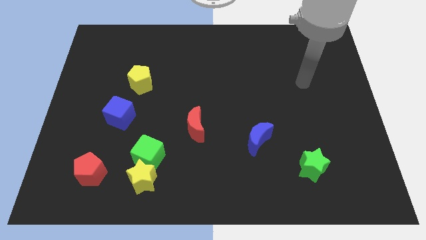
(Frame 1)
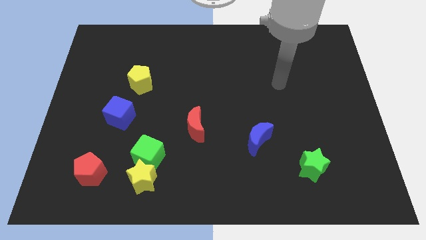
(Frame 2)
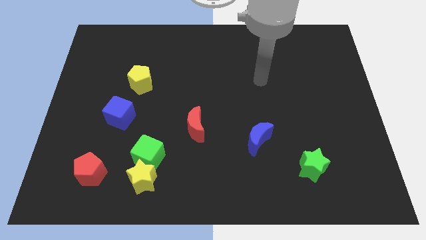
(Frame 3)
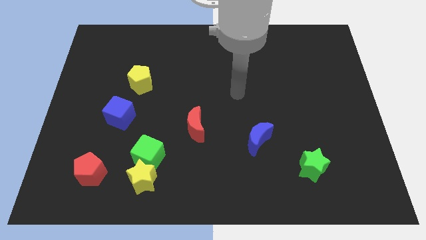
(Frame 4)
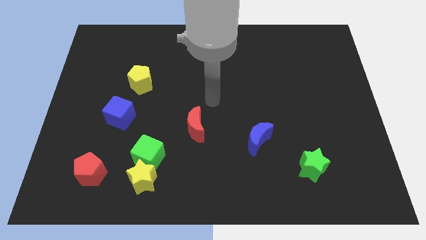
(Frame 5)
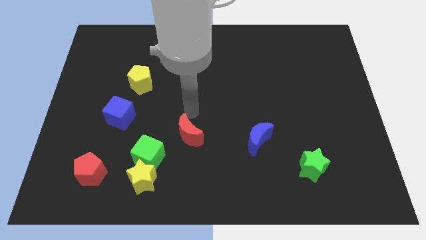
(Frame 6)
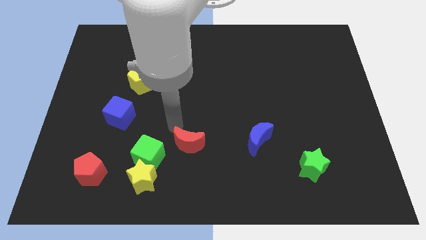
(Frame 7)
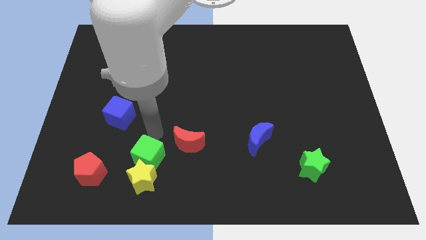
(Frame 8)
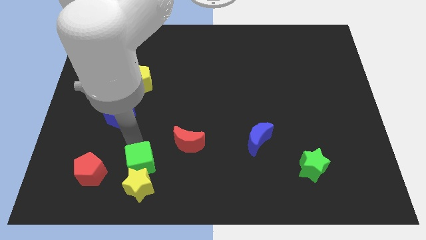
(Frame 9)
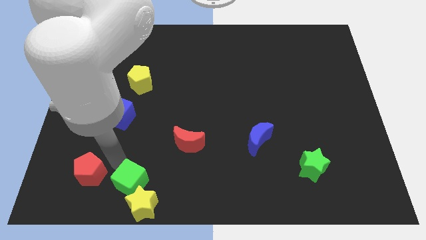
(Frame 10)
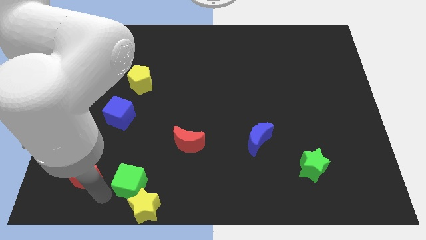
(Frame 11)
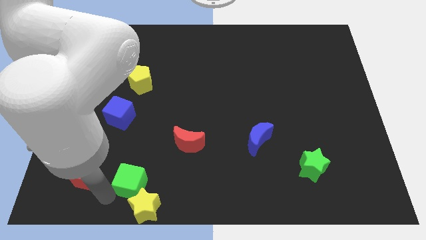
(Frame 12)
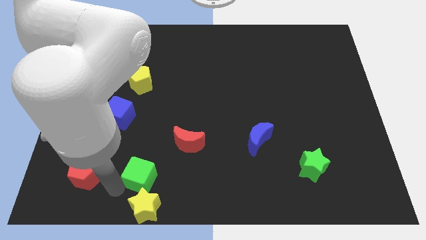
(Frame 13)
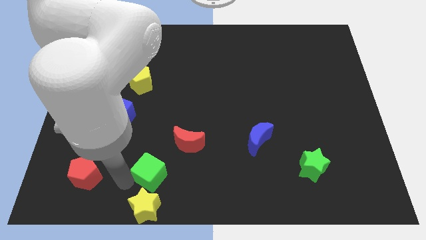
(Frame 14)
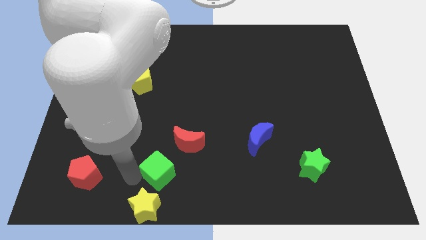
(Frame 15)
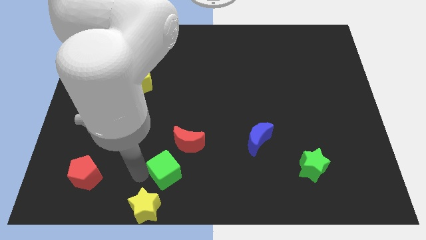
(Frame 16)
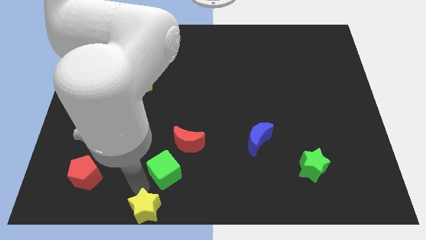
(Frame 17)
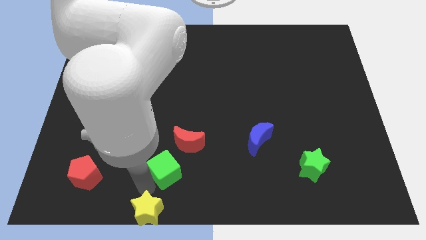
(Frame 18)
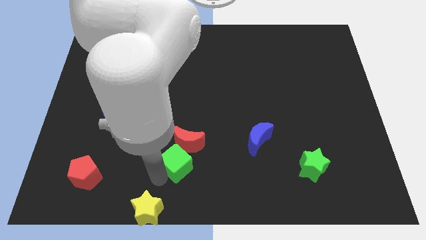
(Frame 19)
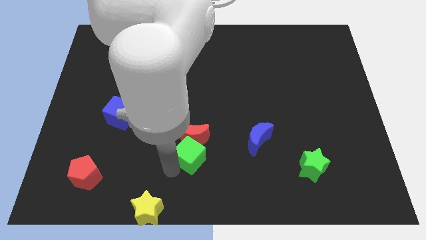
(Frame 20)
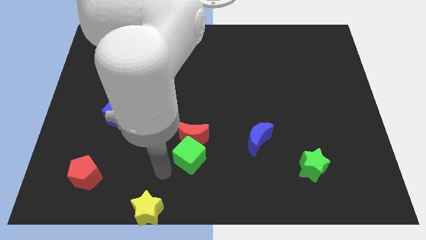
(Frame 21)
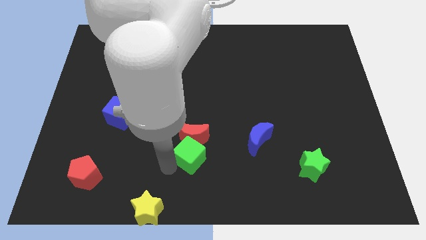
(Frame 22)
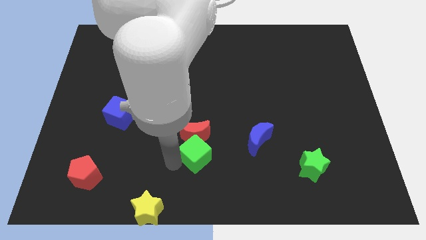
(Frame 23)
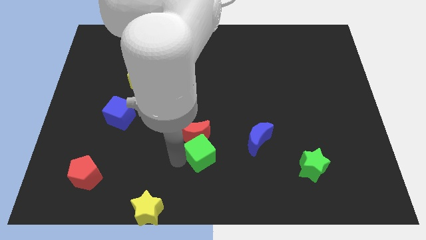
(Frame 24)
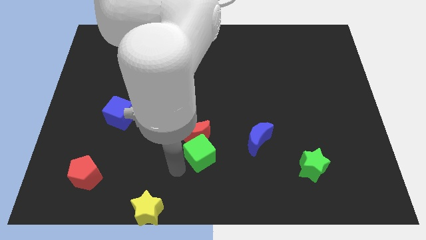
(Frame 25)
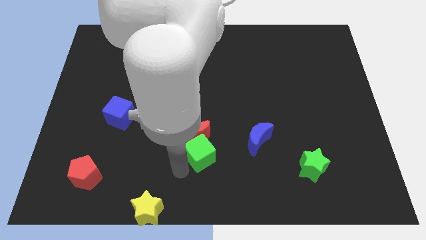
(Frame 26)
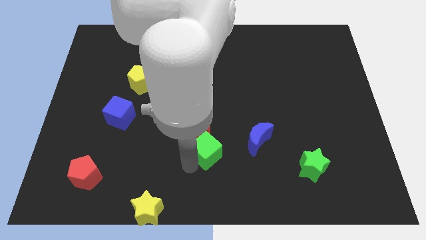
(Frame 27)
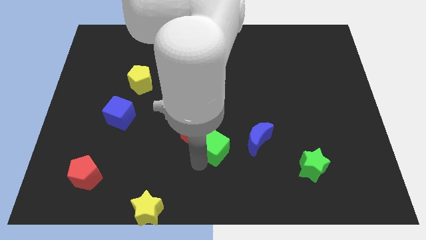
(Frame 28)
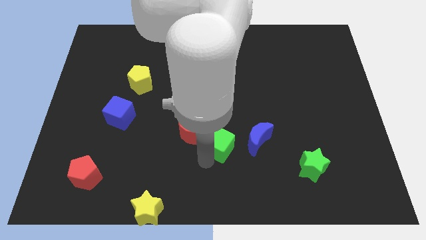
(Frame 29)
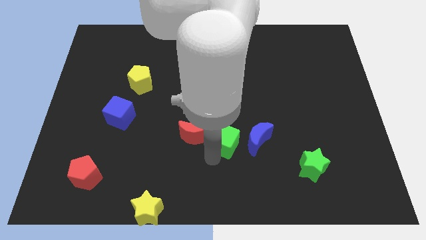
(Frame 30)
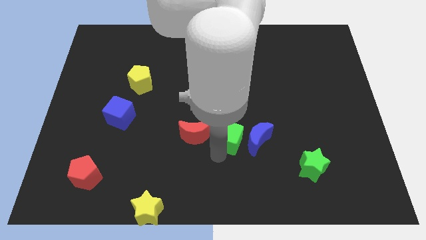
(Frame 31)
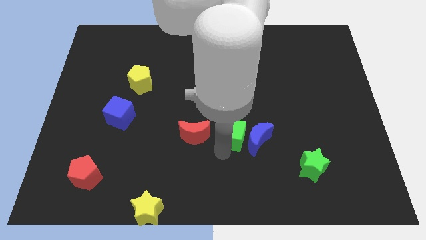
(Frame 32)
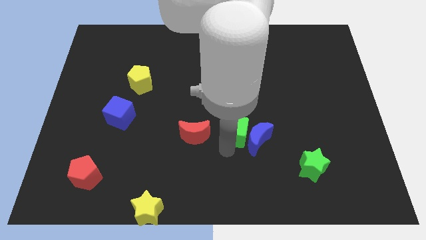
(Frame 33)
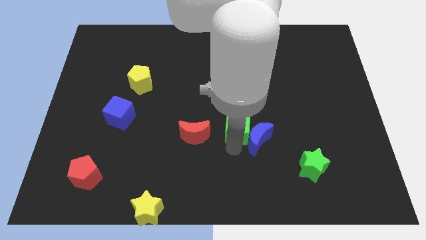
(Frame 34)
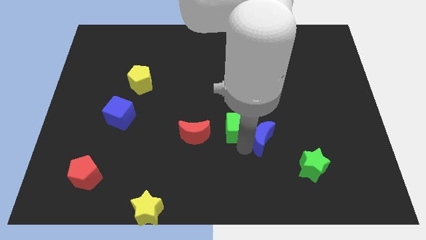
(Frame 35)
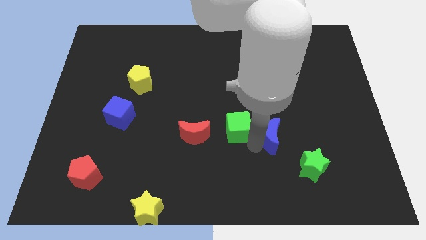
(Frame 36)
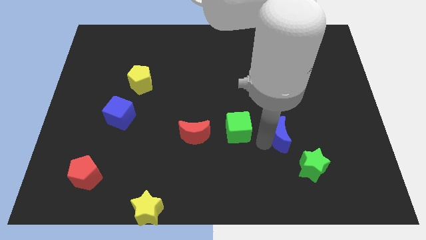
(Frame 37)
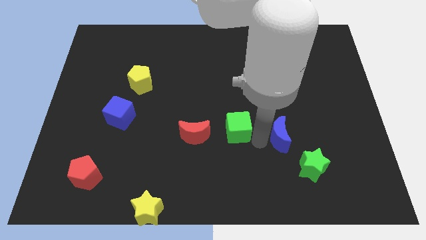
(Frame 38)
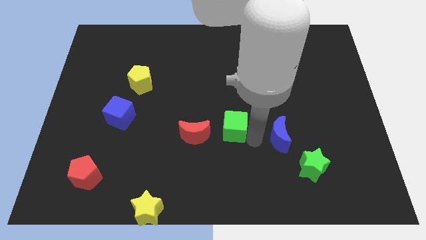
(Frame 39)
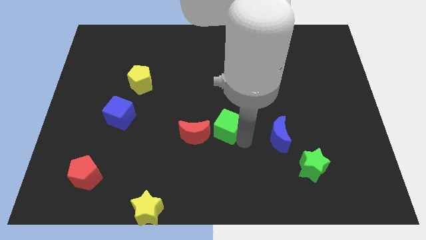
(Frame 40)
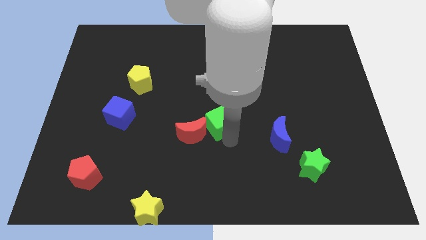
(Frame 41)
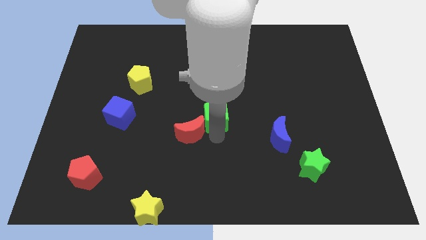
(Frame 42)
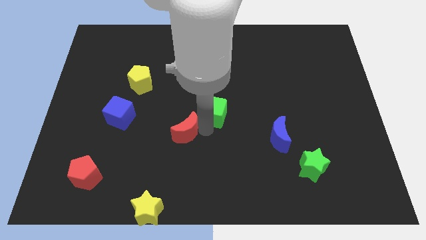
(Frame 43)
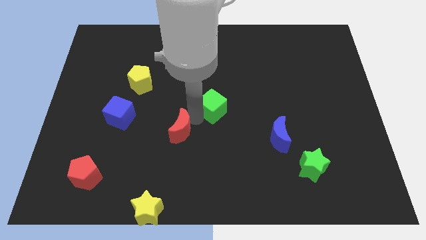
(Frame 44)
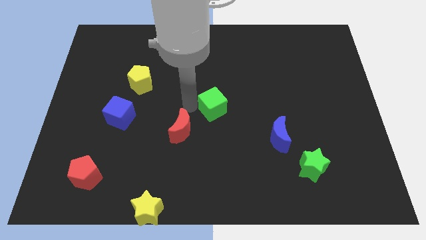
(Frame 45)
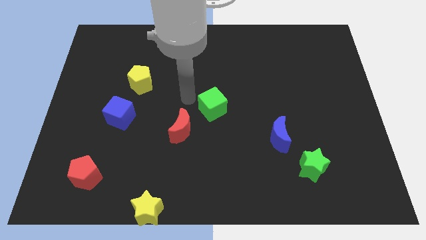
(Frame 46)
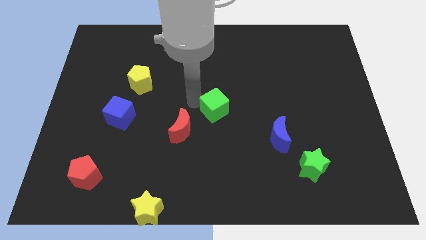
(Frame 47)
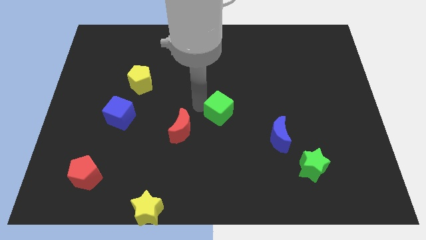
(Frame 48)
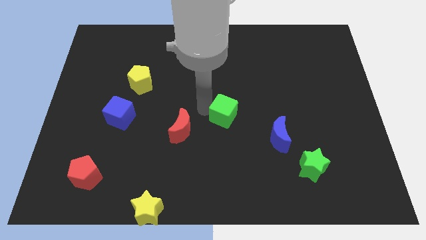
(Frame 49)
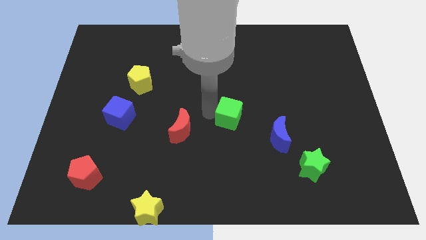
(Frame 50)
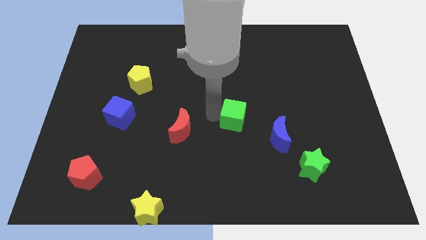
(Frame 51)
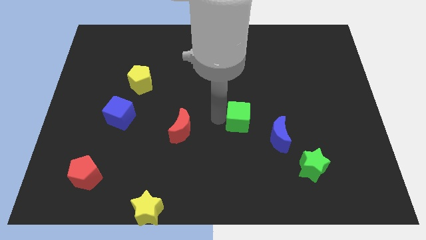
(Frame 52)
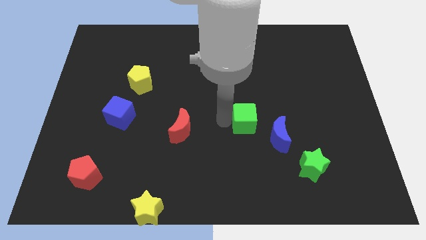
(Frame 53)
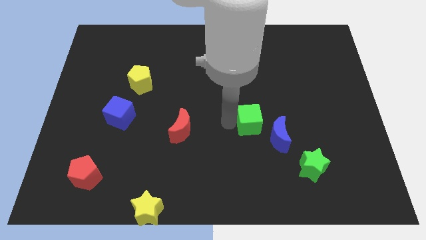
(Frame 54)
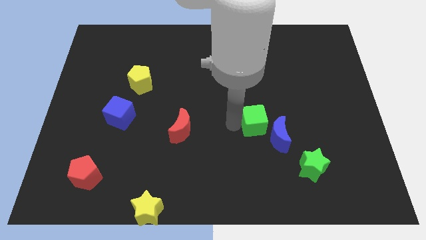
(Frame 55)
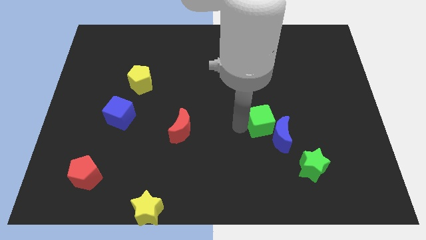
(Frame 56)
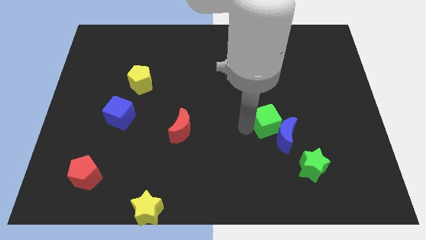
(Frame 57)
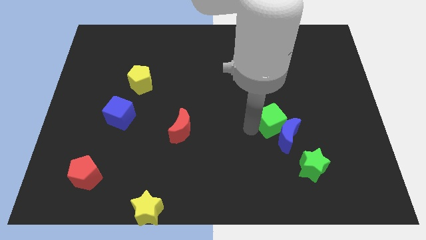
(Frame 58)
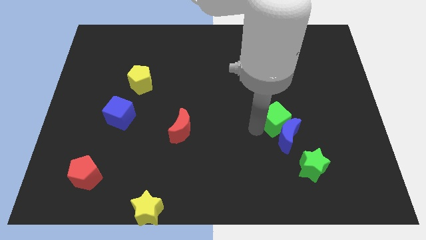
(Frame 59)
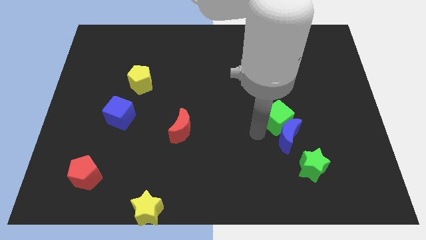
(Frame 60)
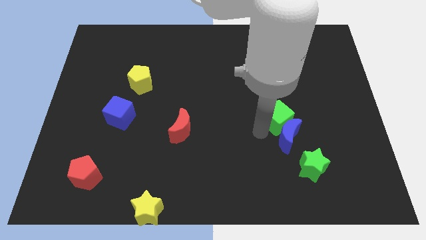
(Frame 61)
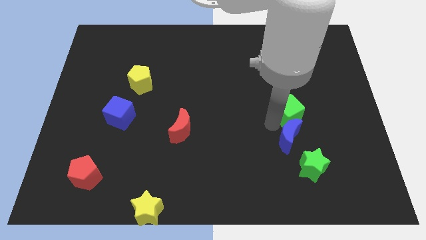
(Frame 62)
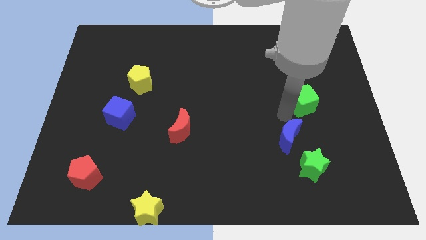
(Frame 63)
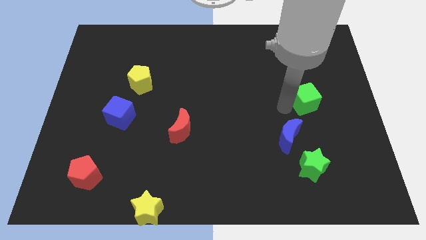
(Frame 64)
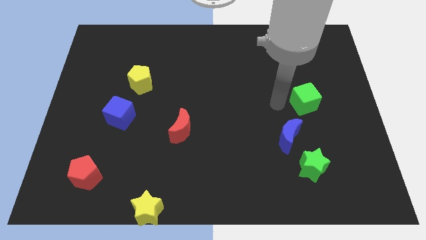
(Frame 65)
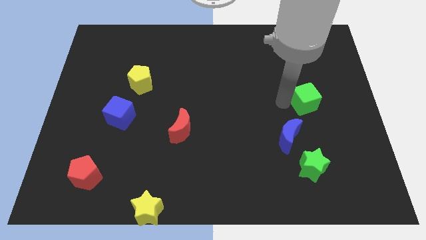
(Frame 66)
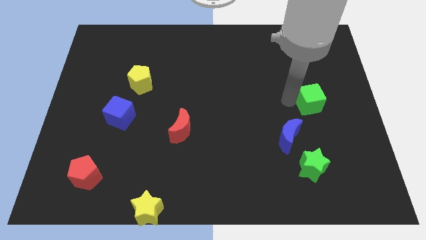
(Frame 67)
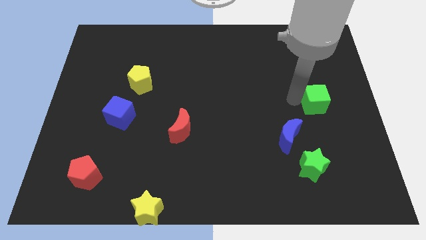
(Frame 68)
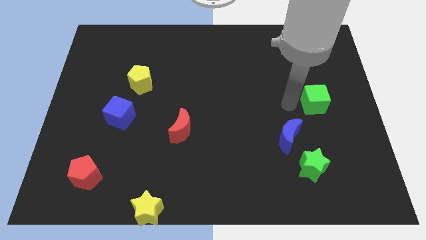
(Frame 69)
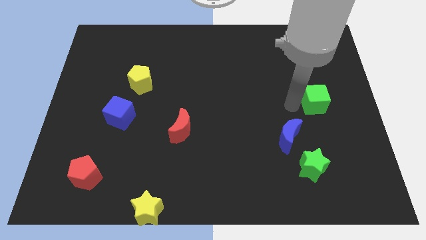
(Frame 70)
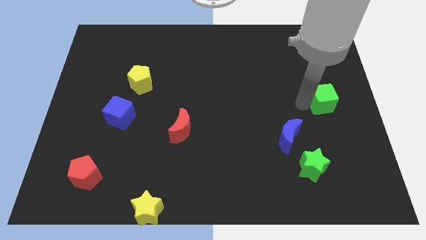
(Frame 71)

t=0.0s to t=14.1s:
move the green cube to the right side of the board

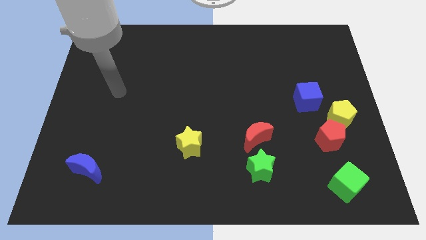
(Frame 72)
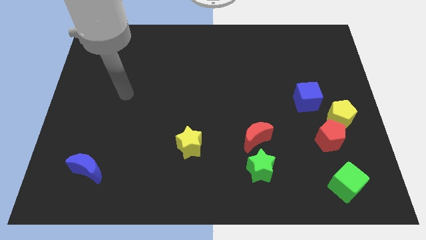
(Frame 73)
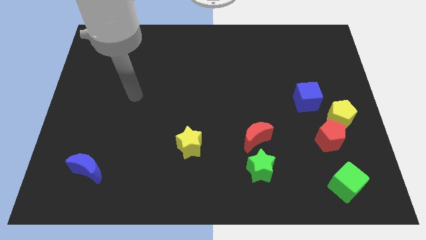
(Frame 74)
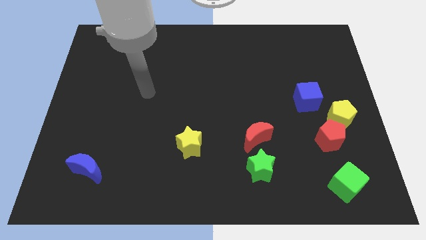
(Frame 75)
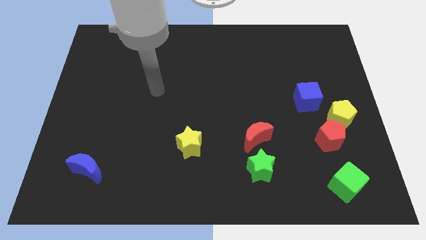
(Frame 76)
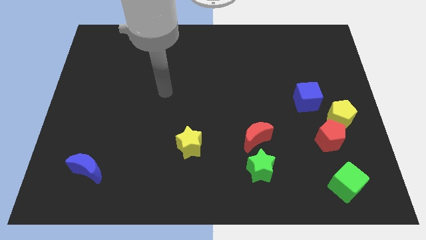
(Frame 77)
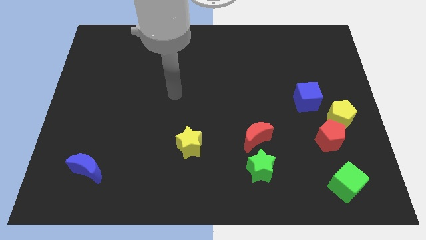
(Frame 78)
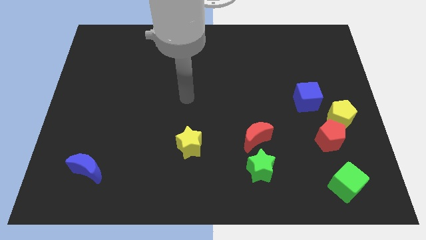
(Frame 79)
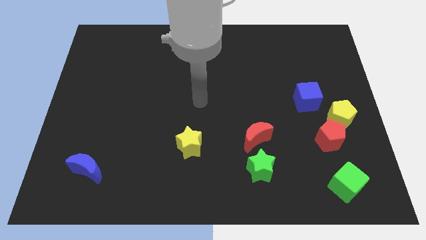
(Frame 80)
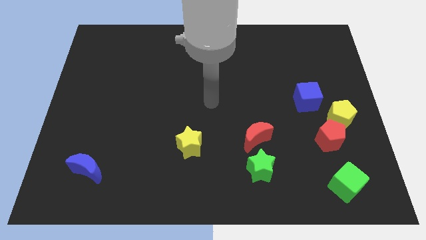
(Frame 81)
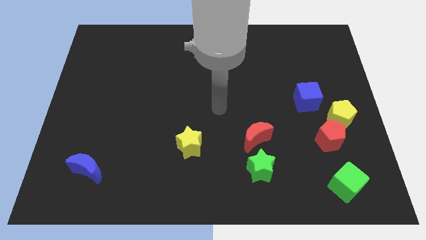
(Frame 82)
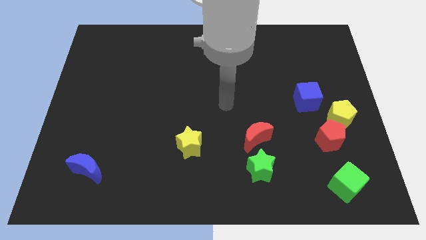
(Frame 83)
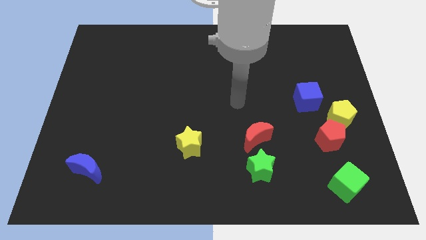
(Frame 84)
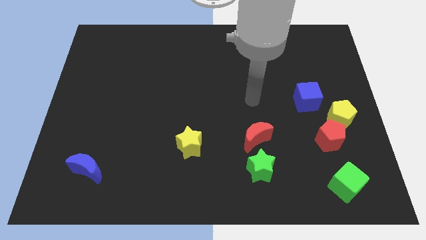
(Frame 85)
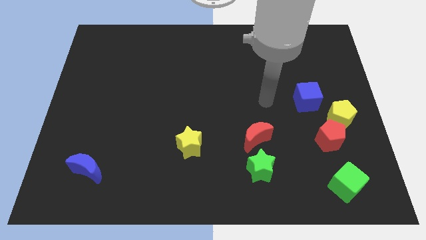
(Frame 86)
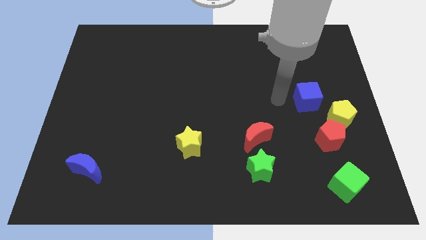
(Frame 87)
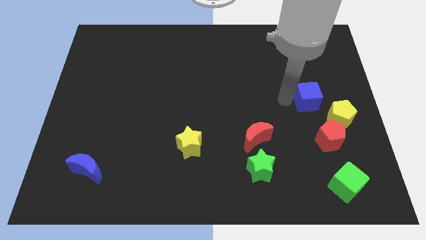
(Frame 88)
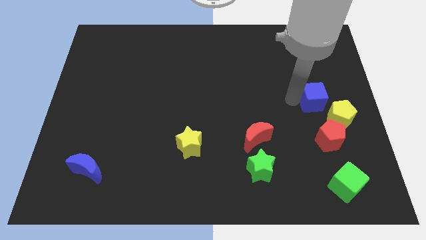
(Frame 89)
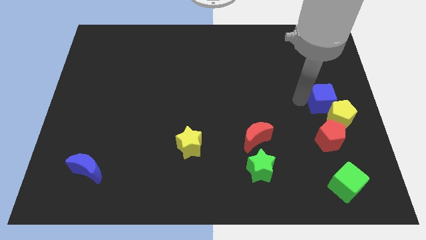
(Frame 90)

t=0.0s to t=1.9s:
push the blue cube to the right side
